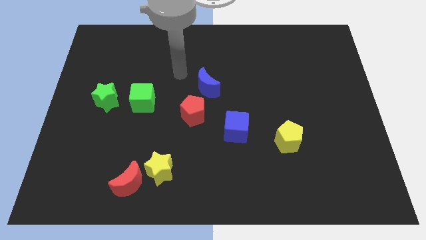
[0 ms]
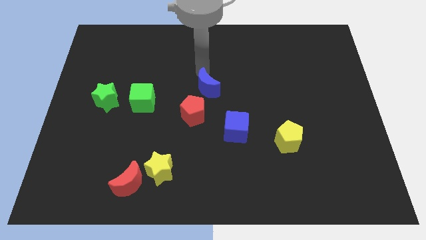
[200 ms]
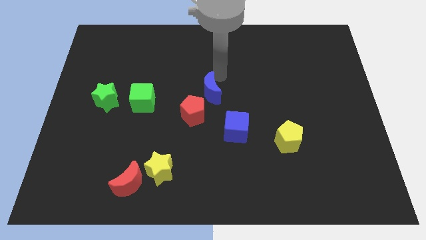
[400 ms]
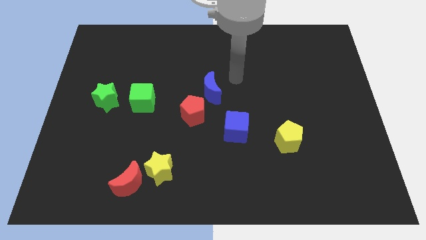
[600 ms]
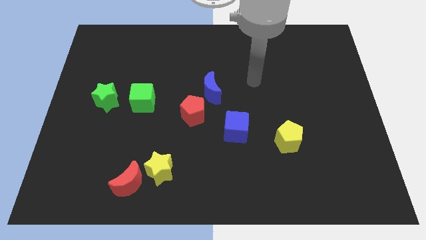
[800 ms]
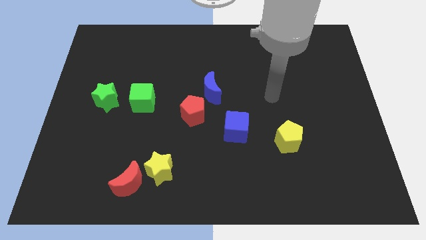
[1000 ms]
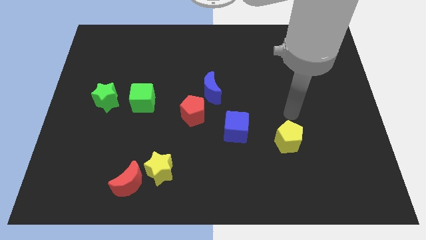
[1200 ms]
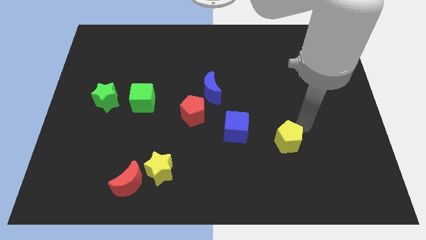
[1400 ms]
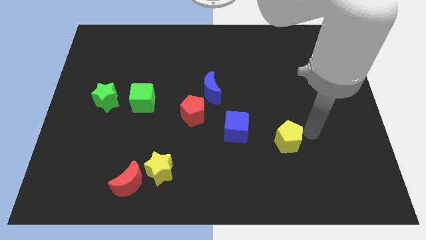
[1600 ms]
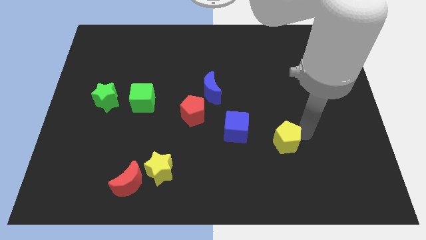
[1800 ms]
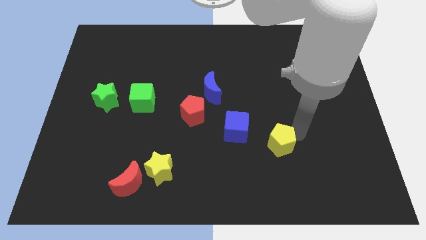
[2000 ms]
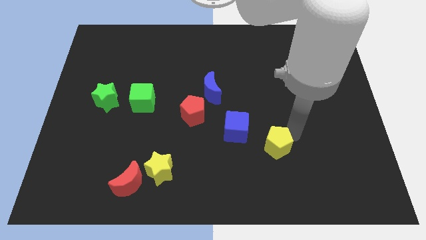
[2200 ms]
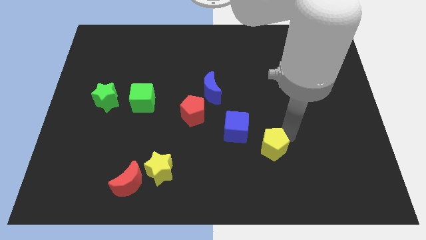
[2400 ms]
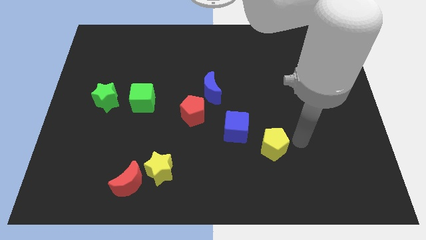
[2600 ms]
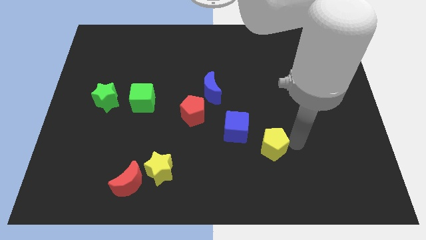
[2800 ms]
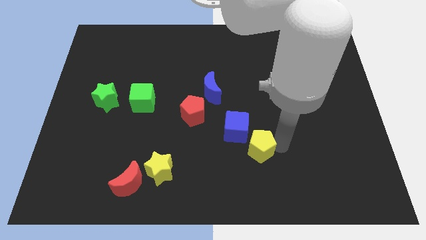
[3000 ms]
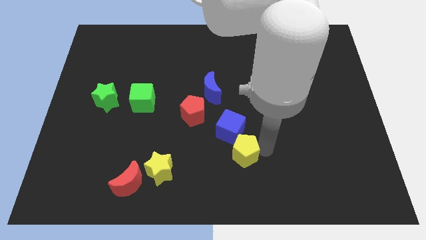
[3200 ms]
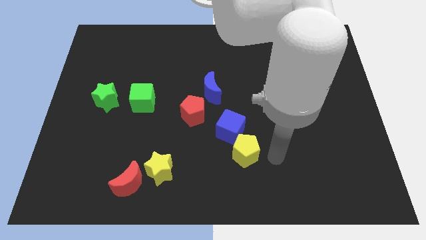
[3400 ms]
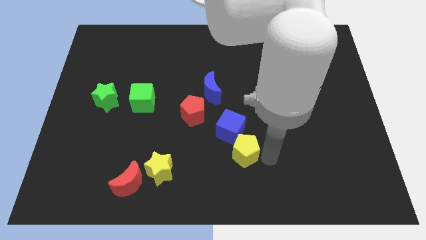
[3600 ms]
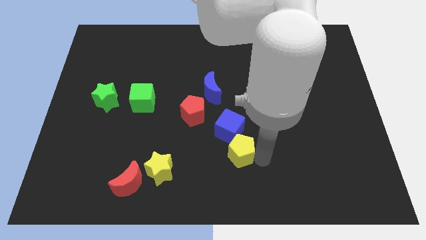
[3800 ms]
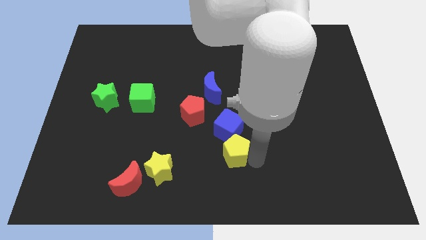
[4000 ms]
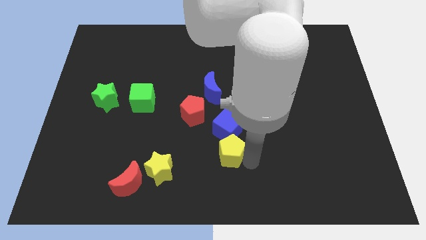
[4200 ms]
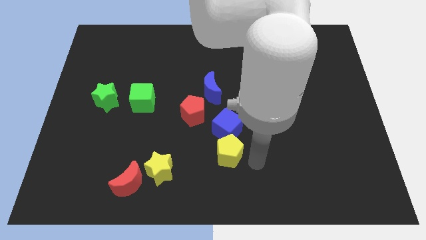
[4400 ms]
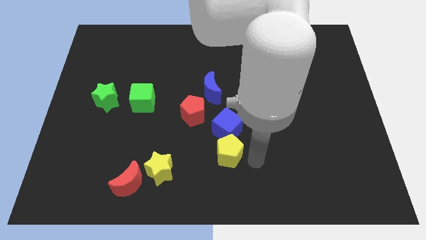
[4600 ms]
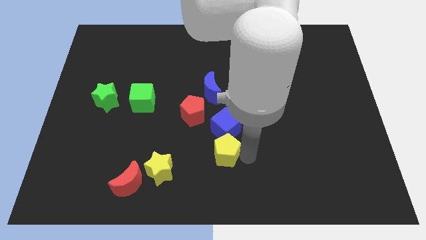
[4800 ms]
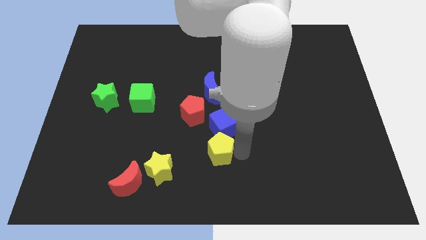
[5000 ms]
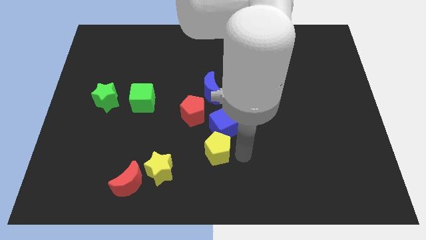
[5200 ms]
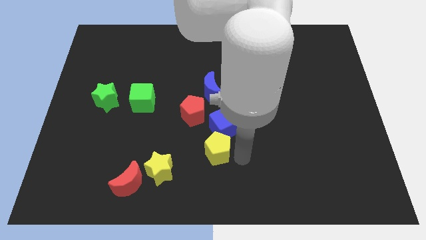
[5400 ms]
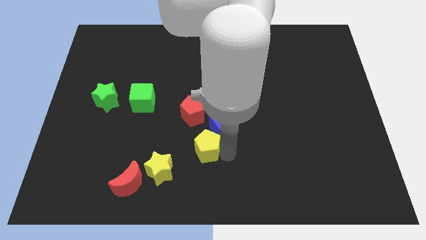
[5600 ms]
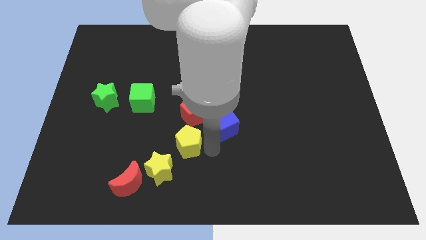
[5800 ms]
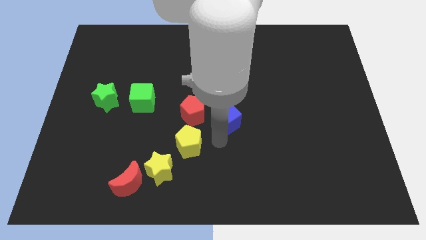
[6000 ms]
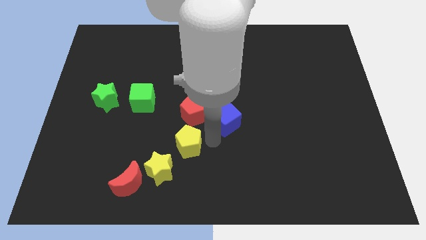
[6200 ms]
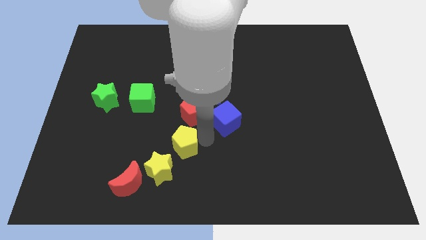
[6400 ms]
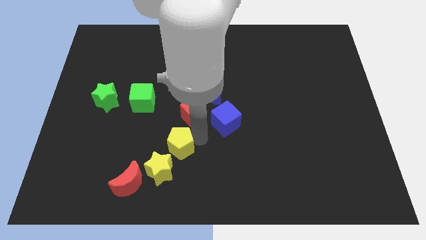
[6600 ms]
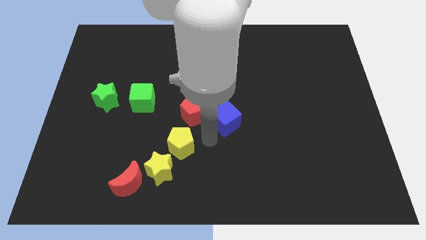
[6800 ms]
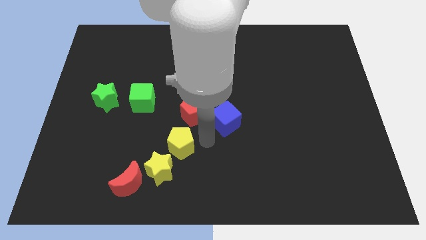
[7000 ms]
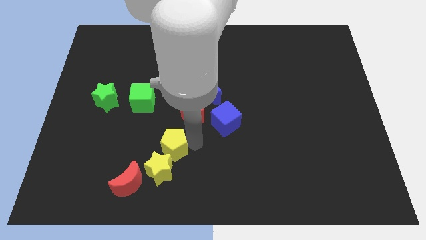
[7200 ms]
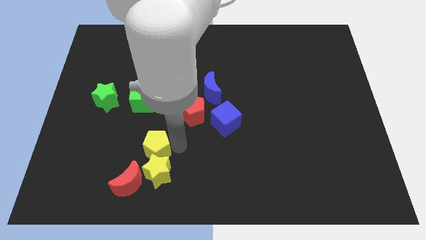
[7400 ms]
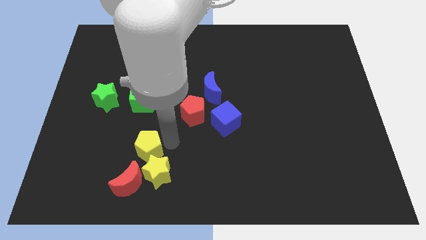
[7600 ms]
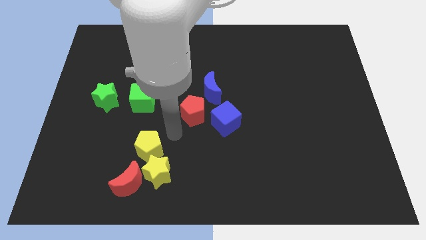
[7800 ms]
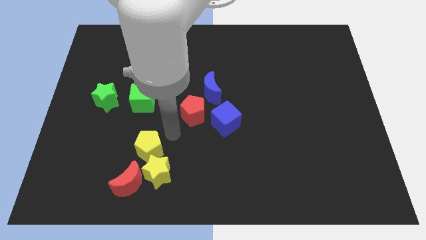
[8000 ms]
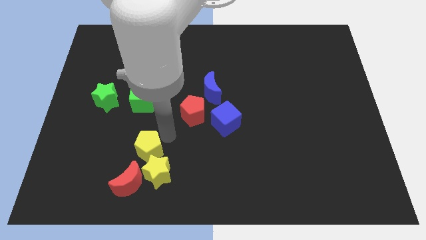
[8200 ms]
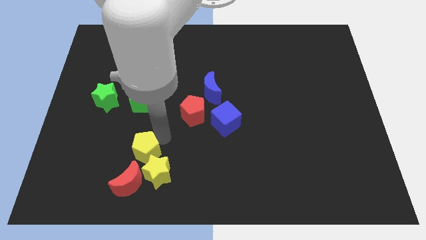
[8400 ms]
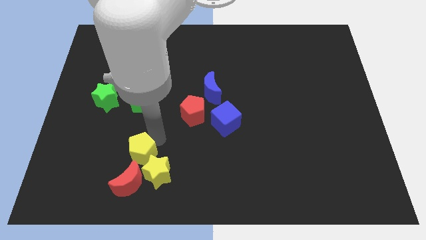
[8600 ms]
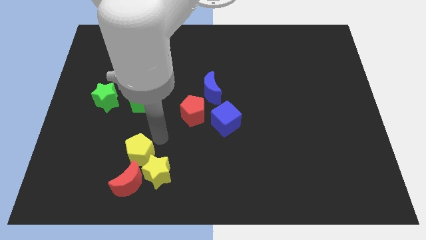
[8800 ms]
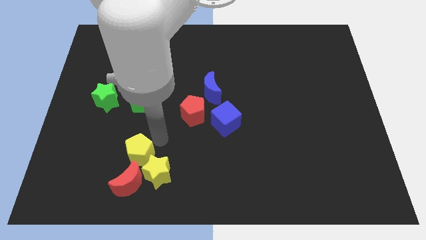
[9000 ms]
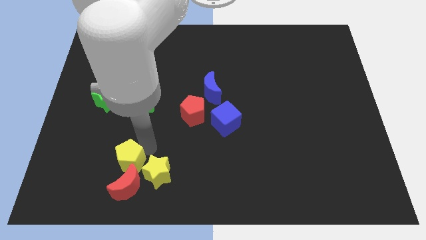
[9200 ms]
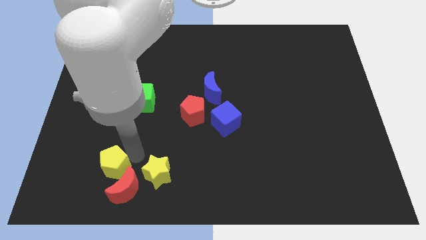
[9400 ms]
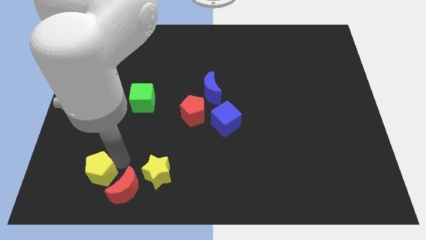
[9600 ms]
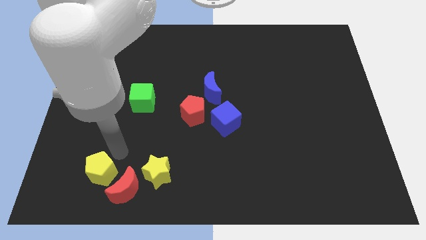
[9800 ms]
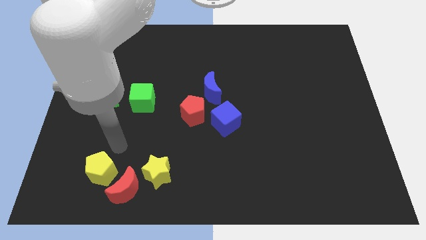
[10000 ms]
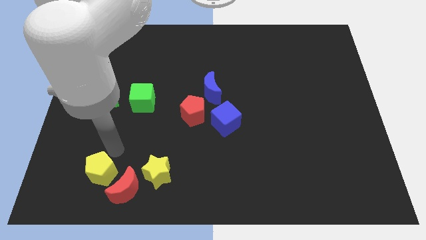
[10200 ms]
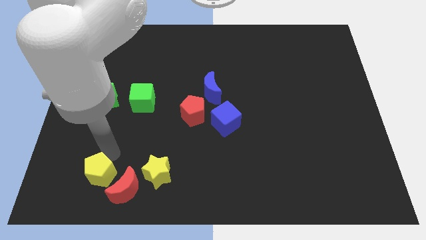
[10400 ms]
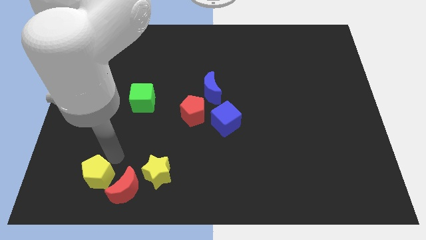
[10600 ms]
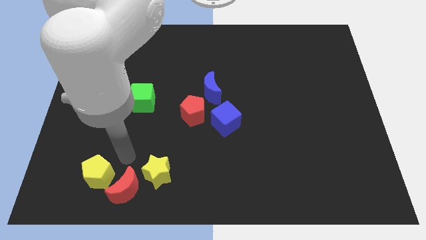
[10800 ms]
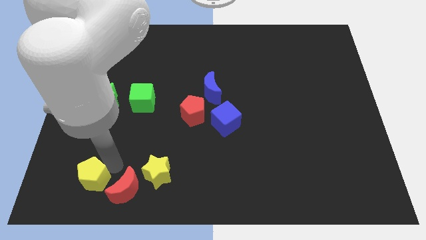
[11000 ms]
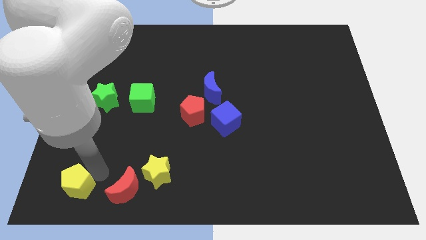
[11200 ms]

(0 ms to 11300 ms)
put the yellow pentagon to the bottom left corner
